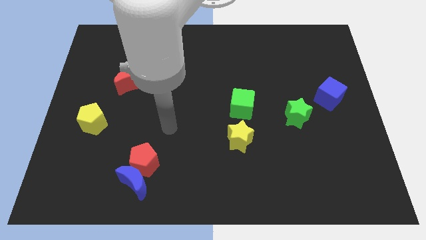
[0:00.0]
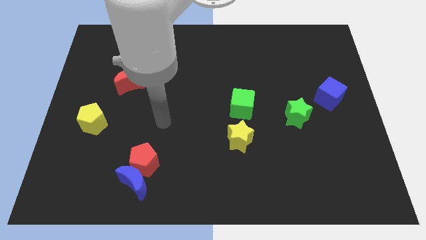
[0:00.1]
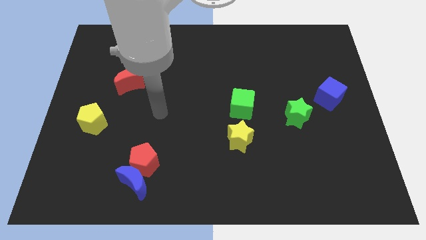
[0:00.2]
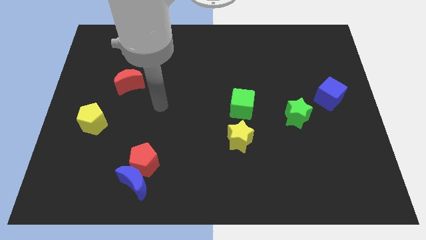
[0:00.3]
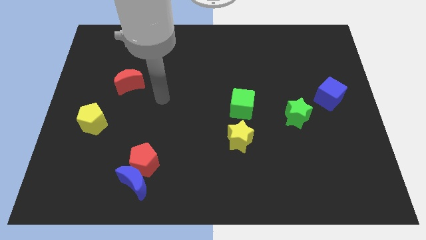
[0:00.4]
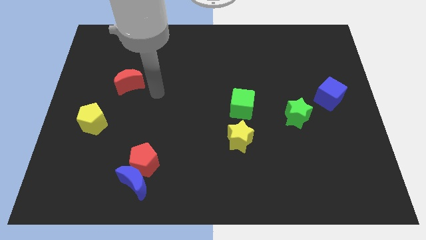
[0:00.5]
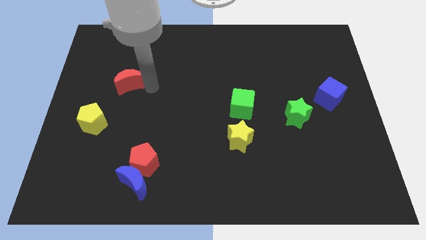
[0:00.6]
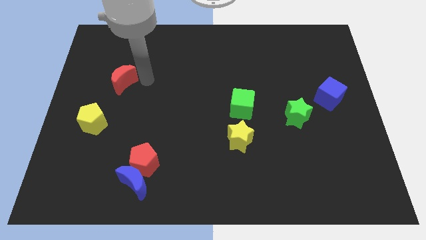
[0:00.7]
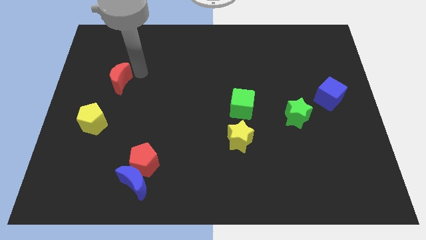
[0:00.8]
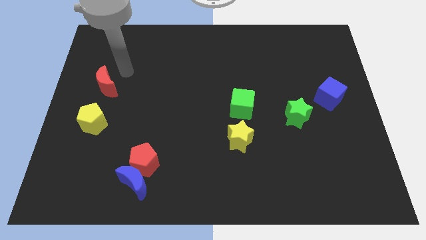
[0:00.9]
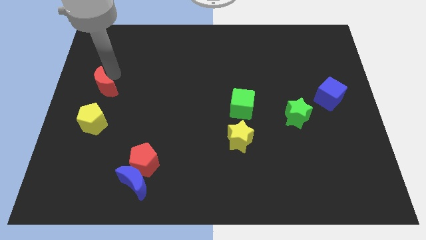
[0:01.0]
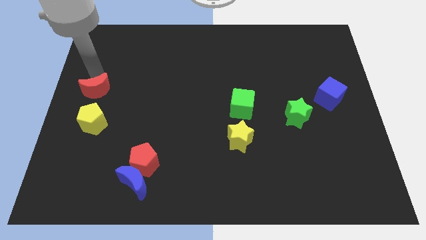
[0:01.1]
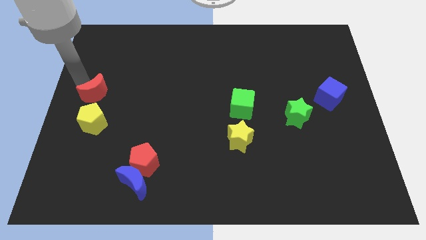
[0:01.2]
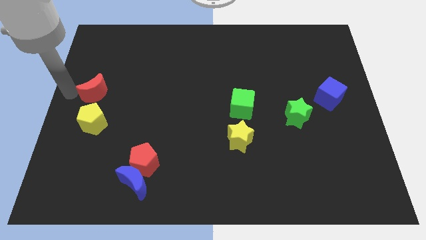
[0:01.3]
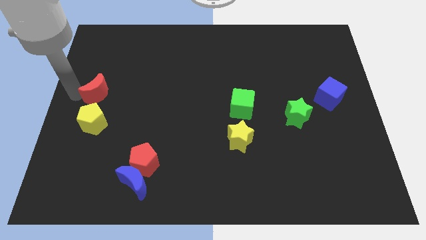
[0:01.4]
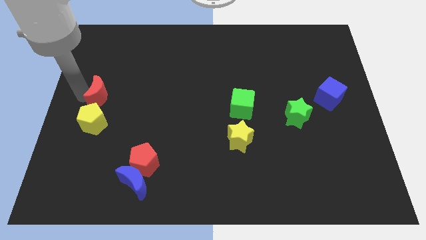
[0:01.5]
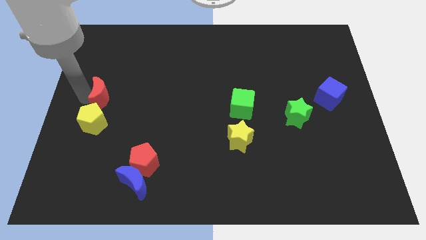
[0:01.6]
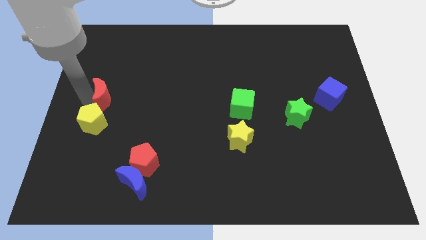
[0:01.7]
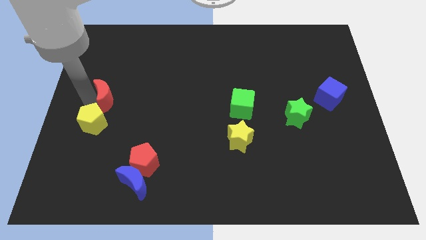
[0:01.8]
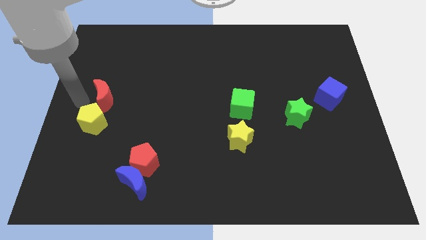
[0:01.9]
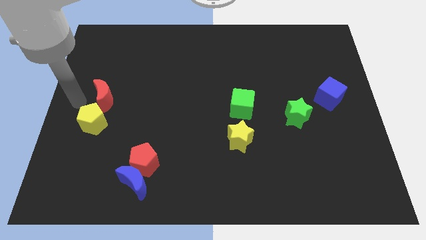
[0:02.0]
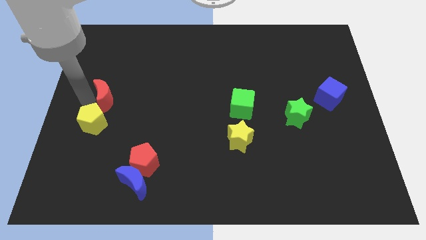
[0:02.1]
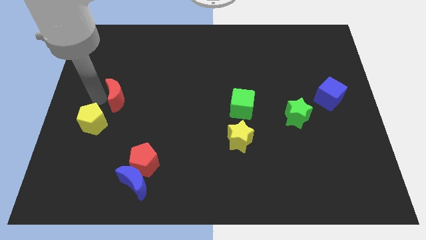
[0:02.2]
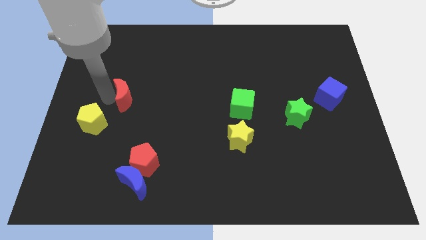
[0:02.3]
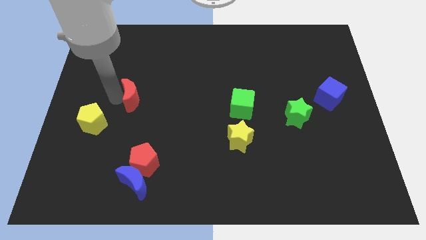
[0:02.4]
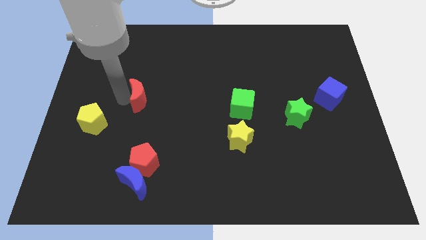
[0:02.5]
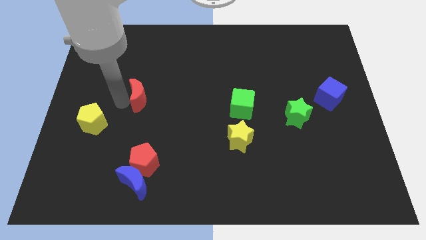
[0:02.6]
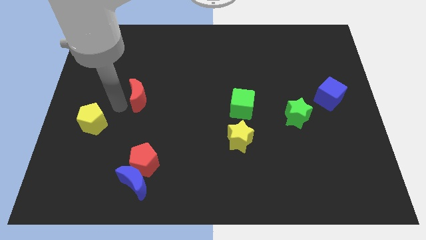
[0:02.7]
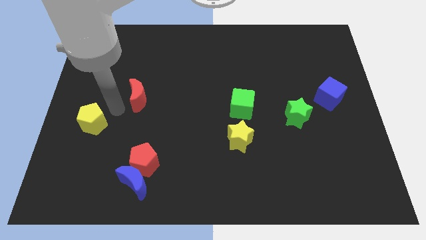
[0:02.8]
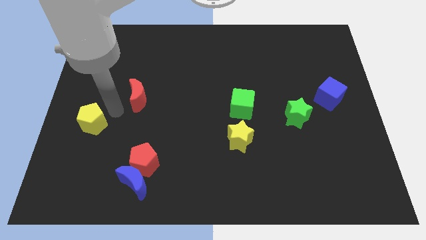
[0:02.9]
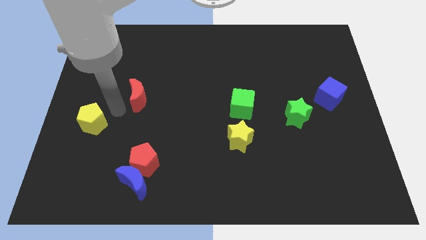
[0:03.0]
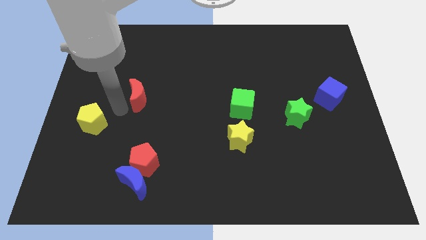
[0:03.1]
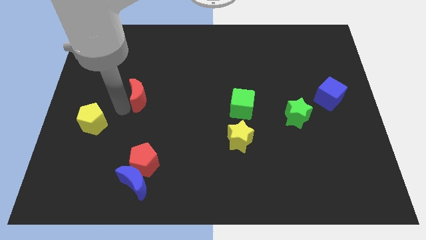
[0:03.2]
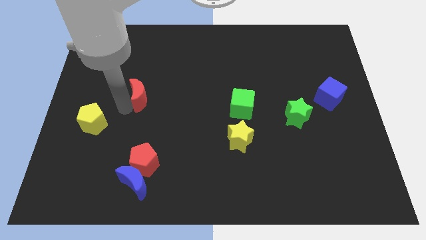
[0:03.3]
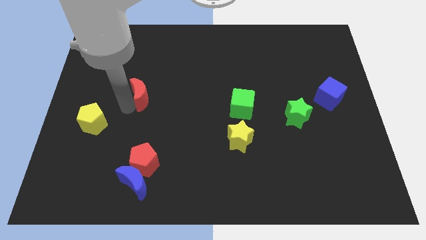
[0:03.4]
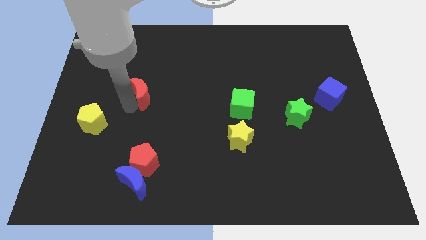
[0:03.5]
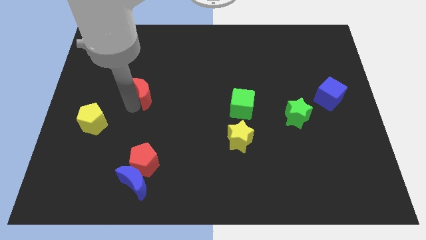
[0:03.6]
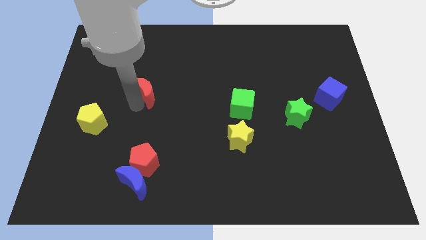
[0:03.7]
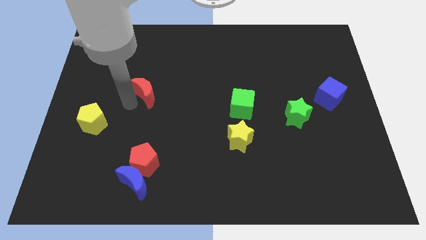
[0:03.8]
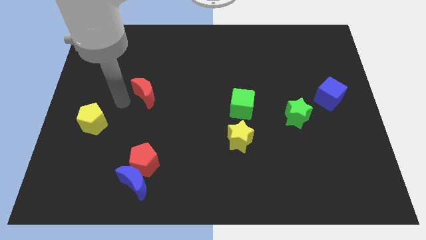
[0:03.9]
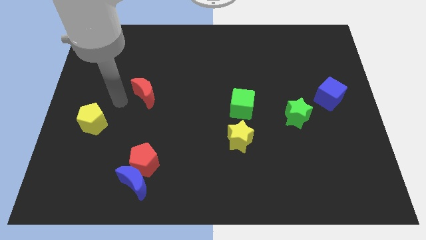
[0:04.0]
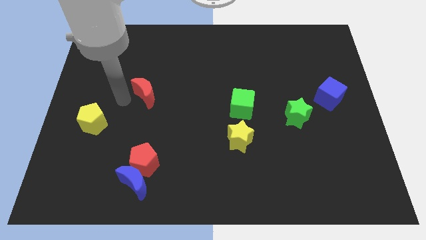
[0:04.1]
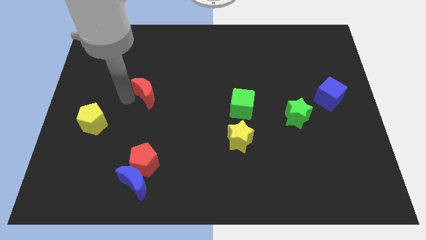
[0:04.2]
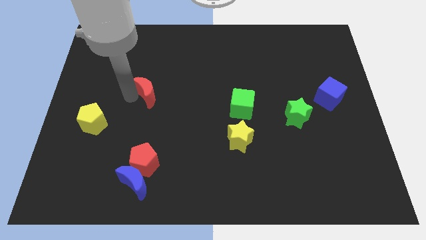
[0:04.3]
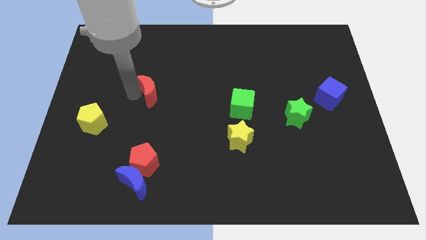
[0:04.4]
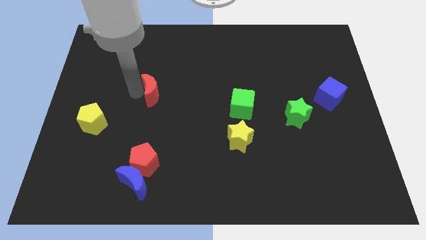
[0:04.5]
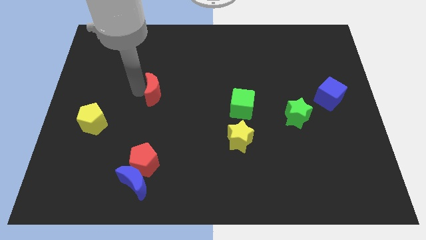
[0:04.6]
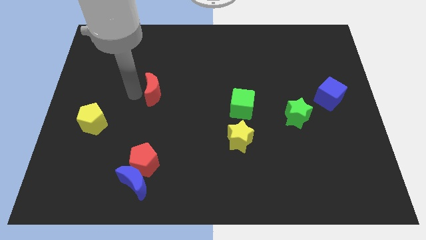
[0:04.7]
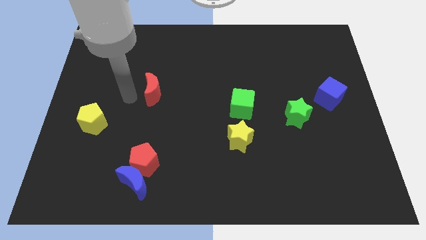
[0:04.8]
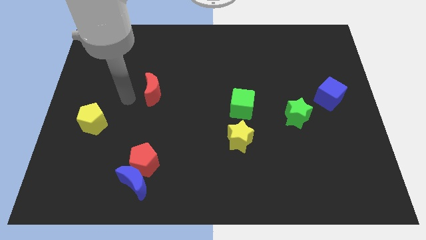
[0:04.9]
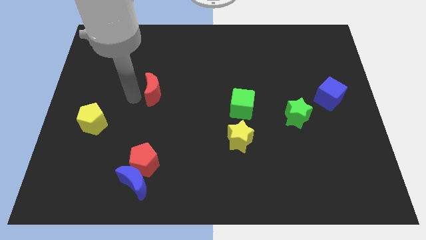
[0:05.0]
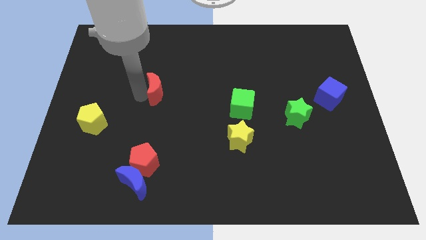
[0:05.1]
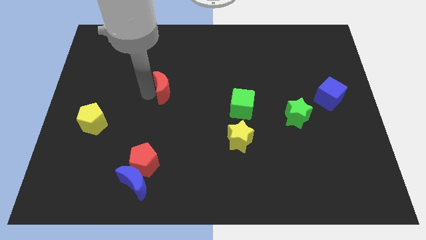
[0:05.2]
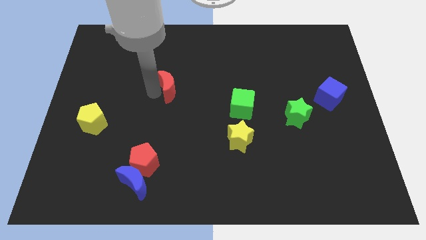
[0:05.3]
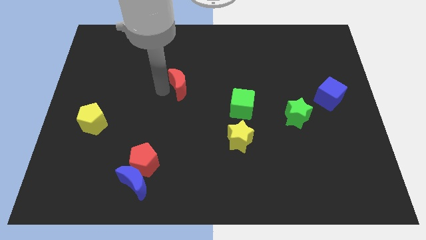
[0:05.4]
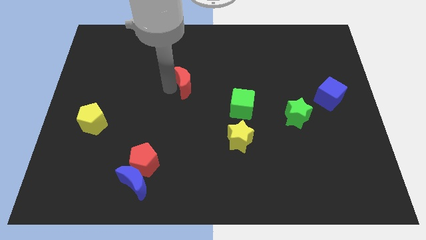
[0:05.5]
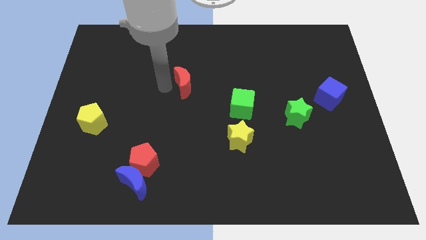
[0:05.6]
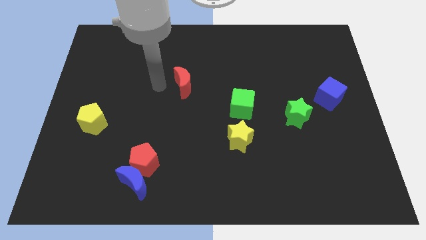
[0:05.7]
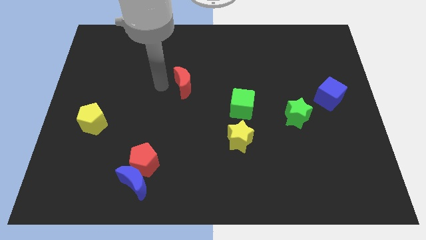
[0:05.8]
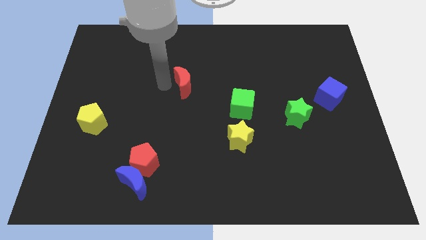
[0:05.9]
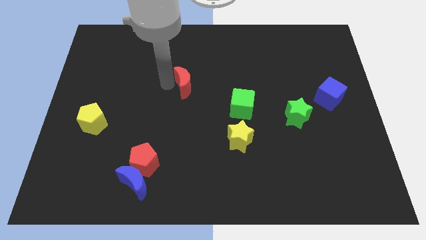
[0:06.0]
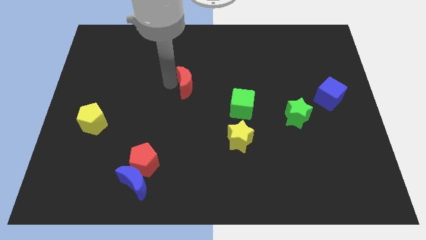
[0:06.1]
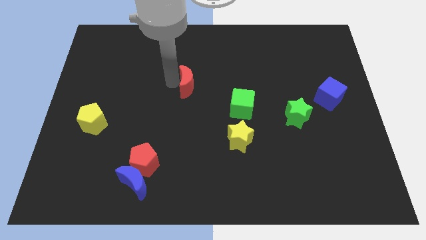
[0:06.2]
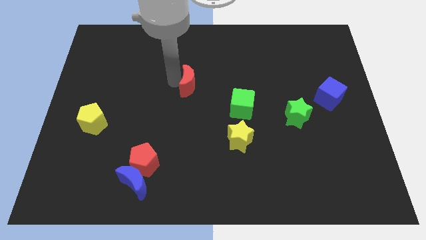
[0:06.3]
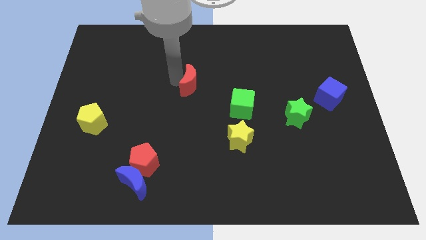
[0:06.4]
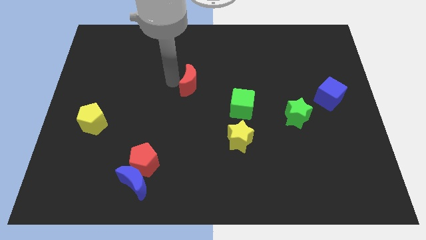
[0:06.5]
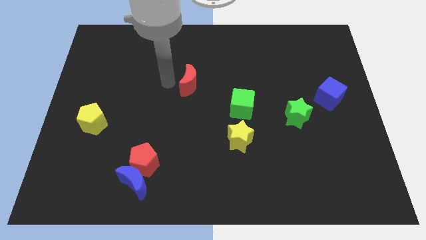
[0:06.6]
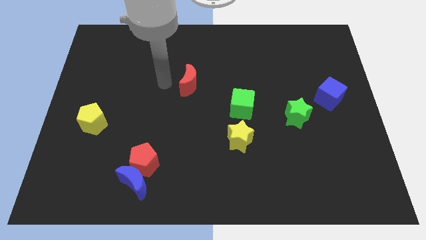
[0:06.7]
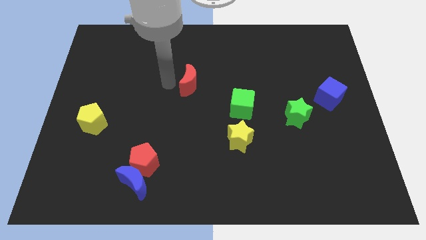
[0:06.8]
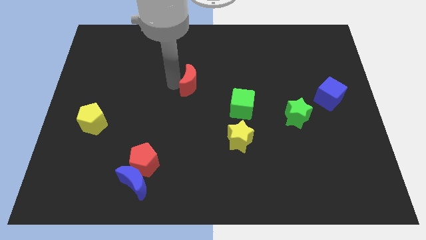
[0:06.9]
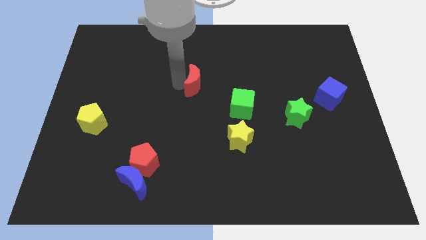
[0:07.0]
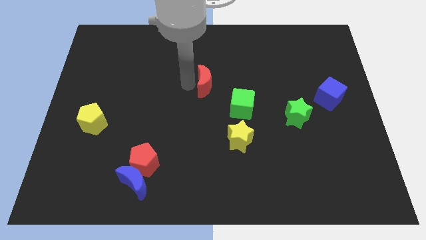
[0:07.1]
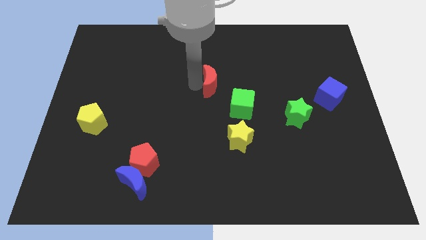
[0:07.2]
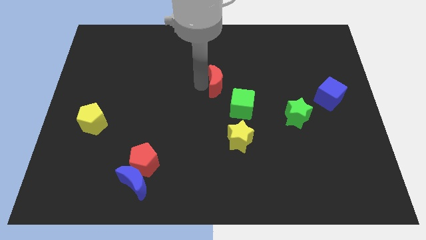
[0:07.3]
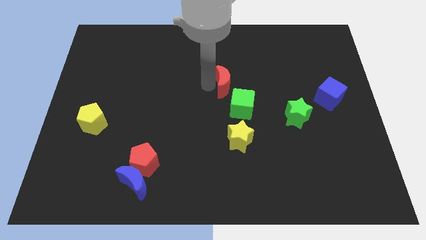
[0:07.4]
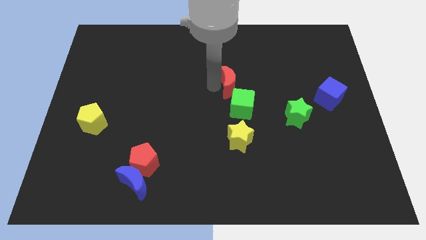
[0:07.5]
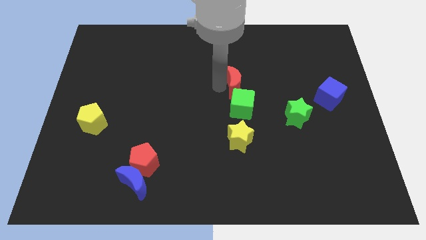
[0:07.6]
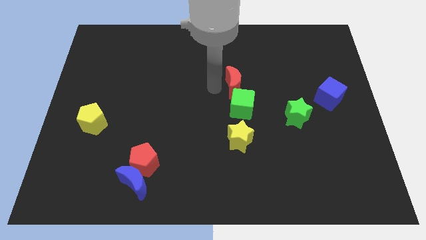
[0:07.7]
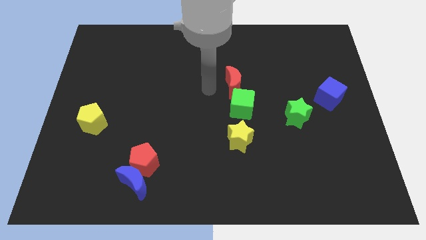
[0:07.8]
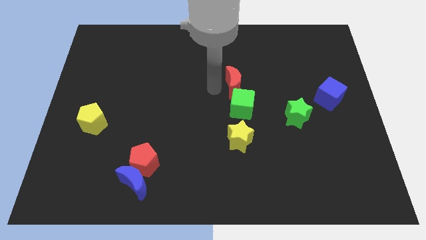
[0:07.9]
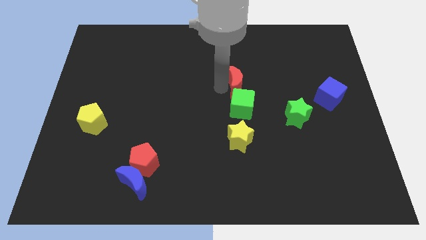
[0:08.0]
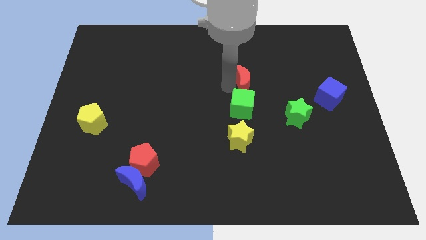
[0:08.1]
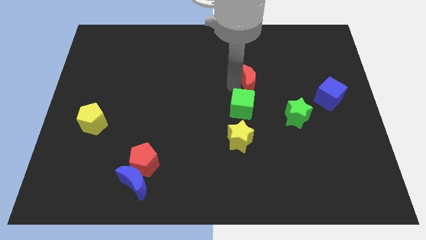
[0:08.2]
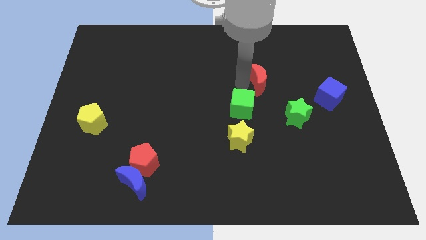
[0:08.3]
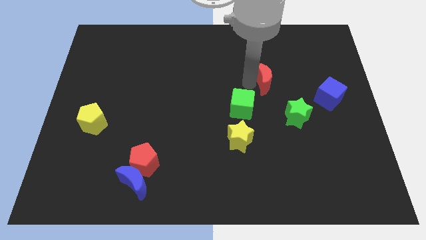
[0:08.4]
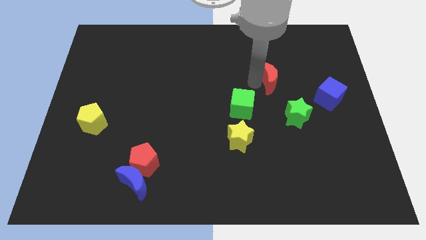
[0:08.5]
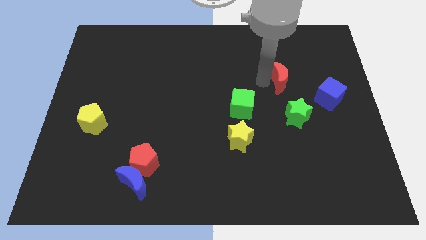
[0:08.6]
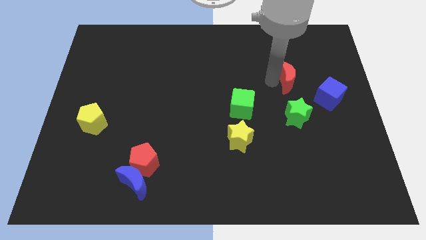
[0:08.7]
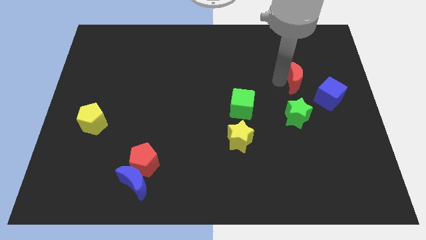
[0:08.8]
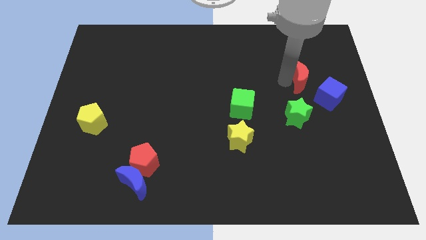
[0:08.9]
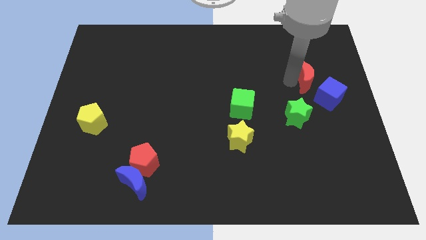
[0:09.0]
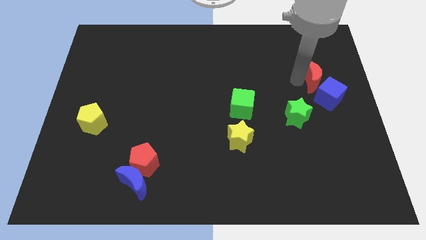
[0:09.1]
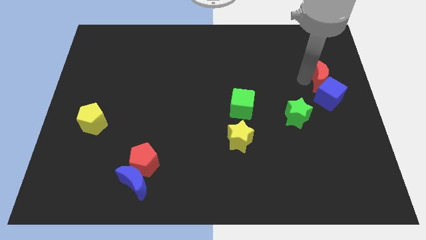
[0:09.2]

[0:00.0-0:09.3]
put the red moon to the right side
